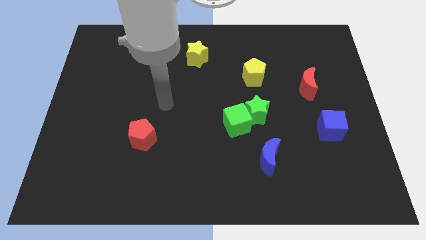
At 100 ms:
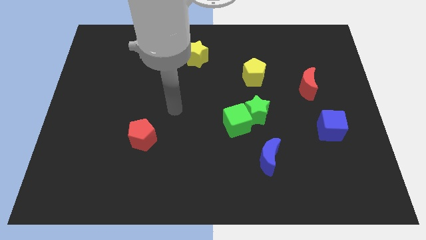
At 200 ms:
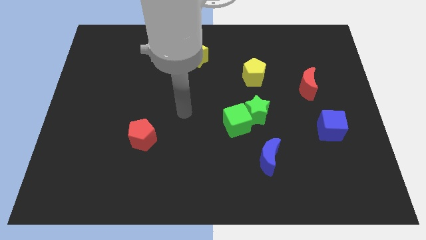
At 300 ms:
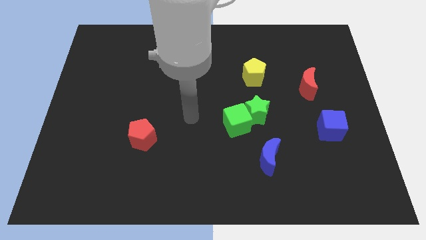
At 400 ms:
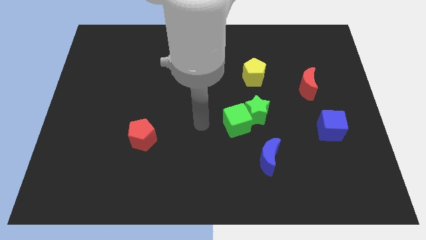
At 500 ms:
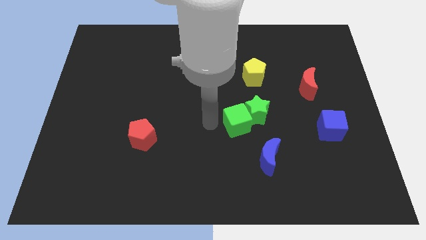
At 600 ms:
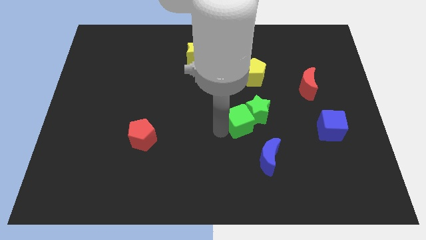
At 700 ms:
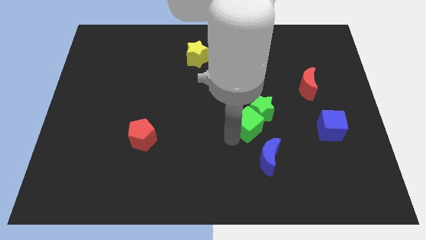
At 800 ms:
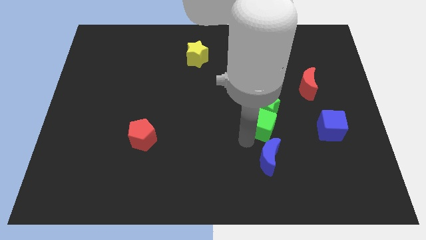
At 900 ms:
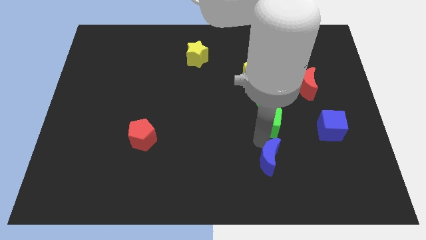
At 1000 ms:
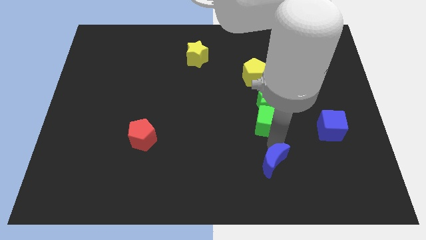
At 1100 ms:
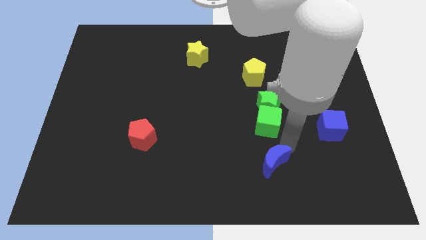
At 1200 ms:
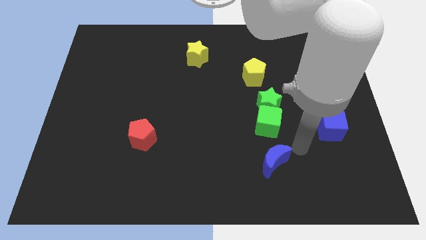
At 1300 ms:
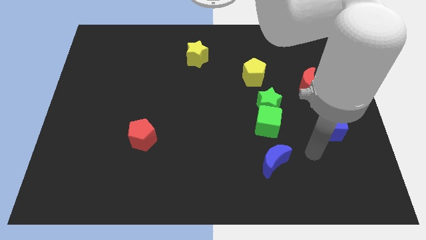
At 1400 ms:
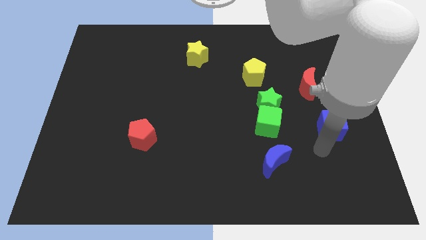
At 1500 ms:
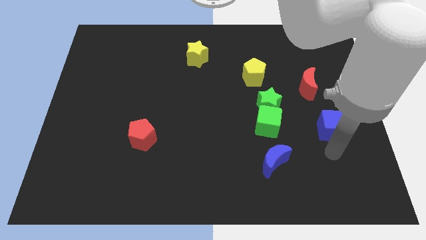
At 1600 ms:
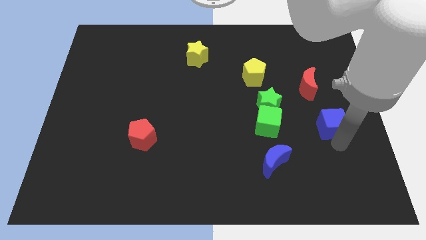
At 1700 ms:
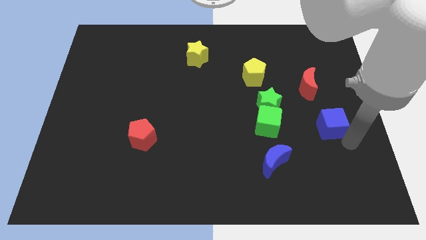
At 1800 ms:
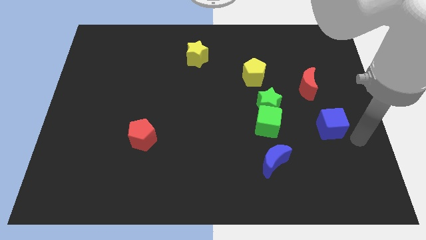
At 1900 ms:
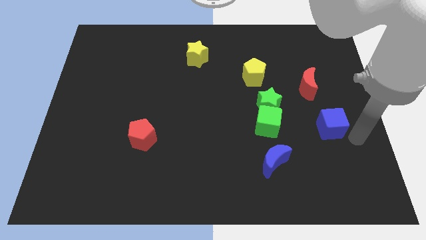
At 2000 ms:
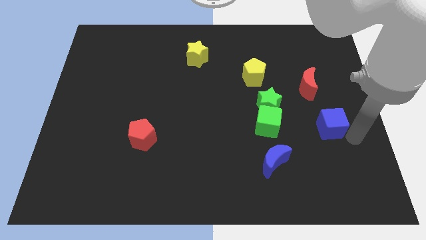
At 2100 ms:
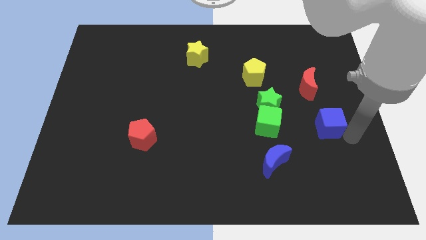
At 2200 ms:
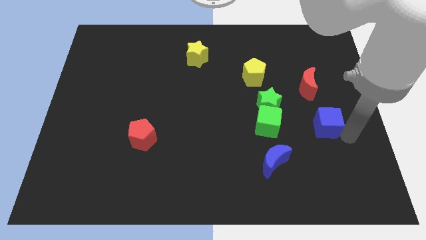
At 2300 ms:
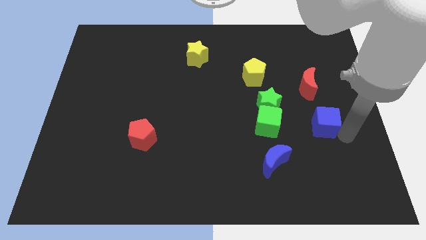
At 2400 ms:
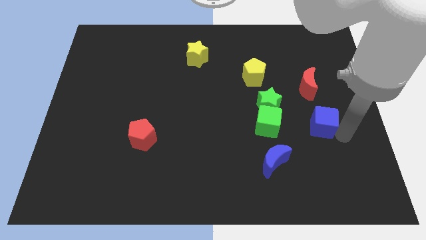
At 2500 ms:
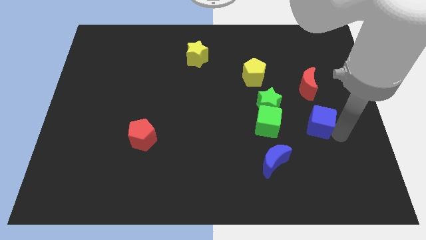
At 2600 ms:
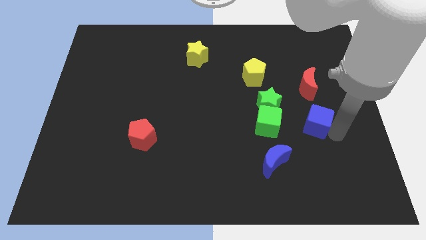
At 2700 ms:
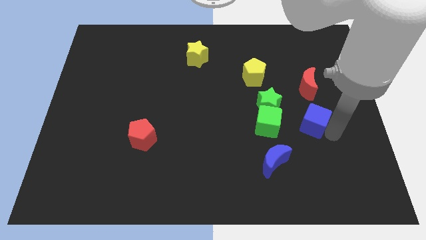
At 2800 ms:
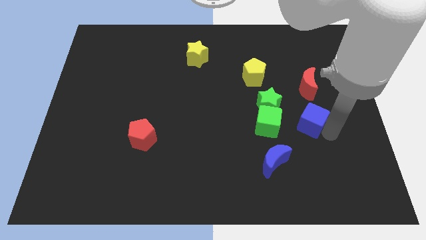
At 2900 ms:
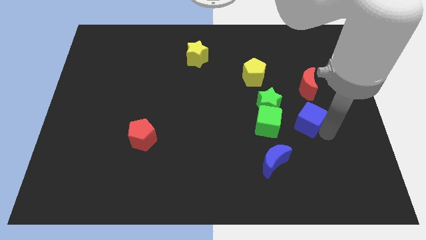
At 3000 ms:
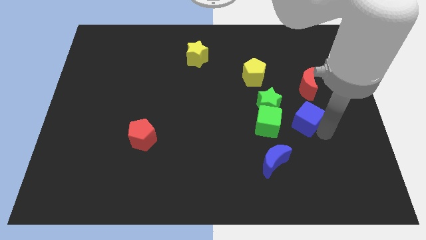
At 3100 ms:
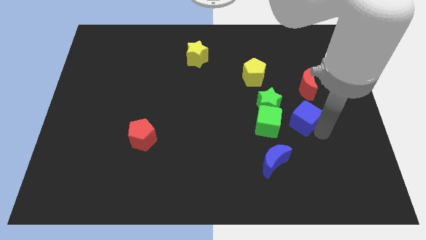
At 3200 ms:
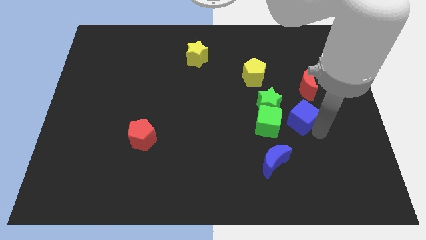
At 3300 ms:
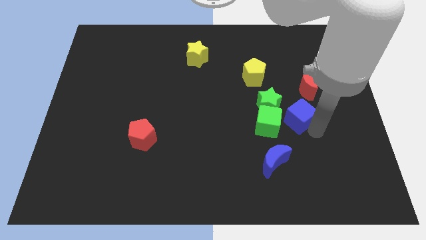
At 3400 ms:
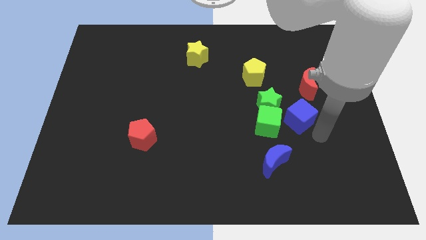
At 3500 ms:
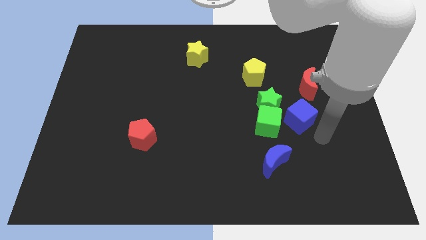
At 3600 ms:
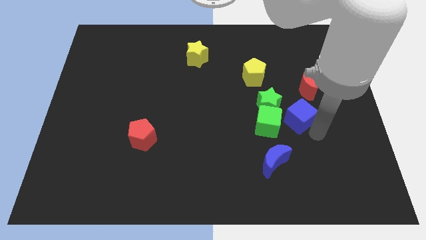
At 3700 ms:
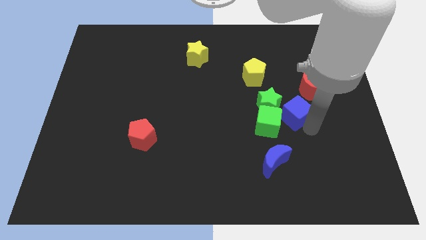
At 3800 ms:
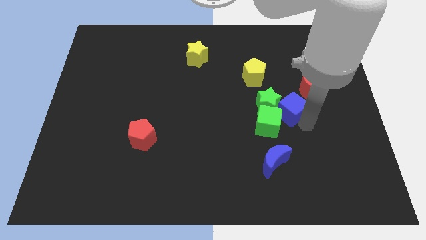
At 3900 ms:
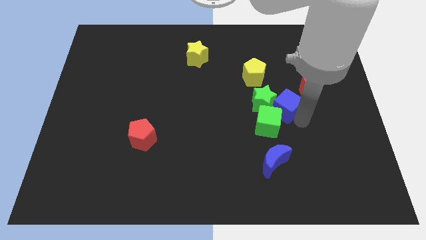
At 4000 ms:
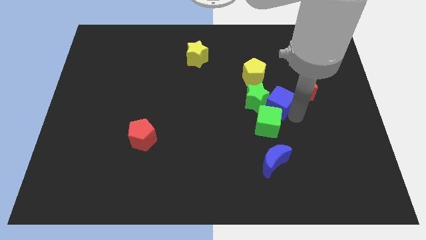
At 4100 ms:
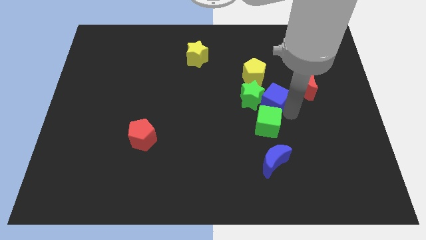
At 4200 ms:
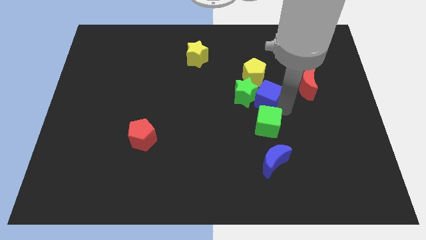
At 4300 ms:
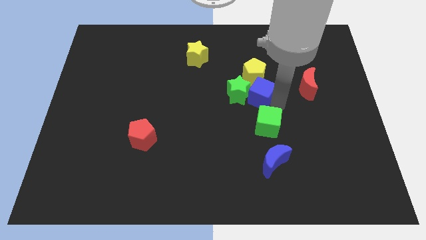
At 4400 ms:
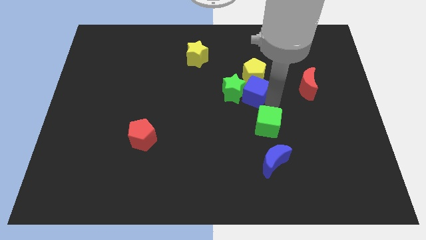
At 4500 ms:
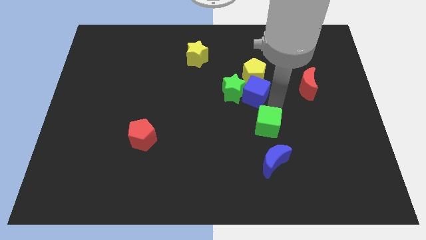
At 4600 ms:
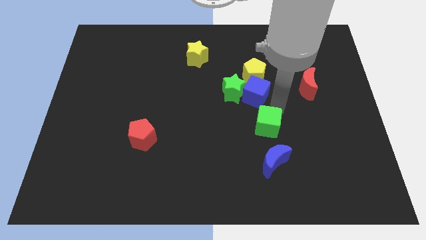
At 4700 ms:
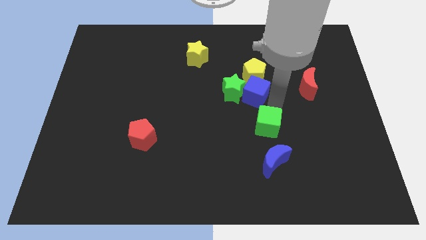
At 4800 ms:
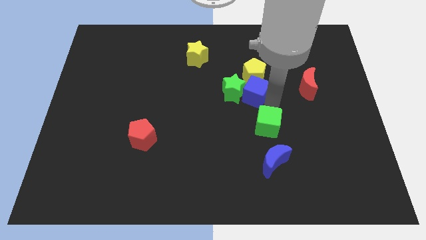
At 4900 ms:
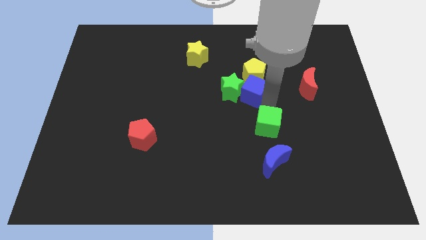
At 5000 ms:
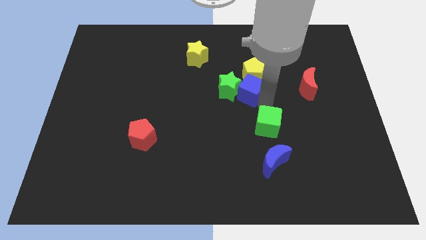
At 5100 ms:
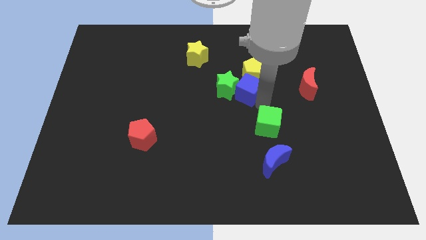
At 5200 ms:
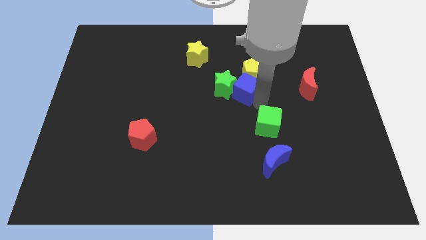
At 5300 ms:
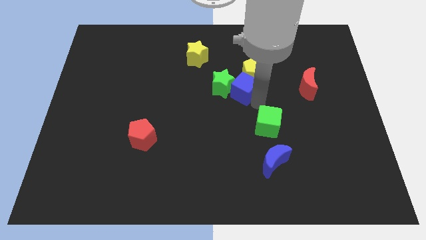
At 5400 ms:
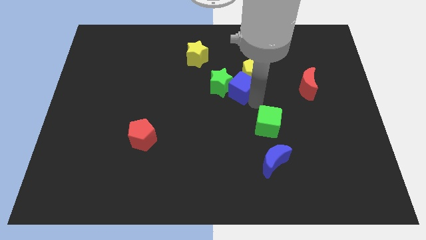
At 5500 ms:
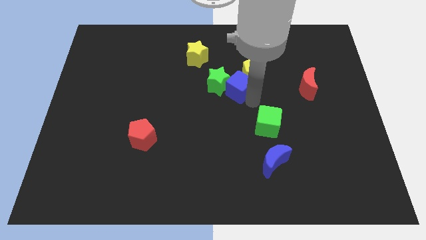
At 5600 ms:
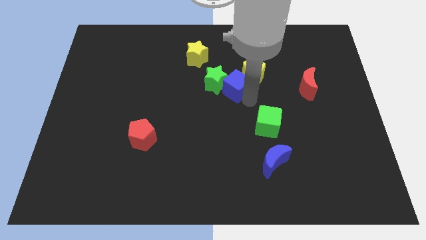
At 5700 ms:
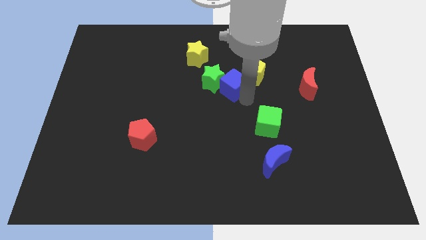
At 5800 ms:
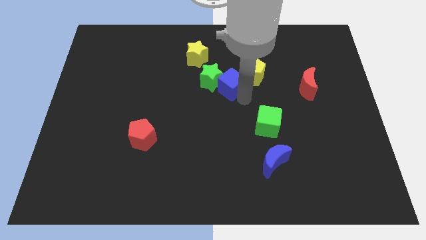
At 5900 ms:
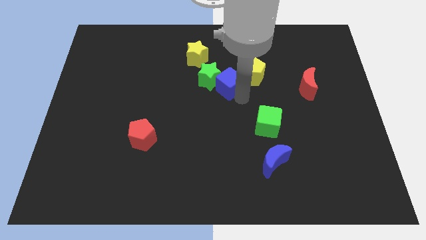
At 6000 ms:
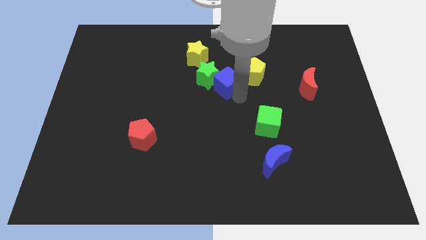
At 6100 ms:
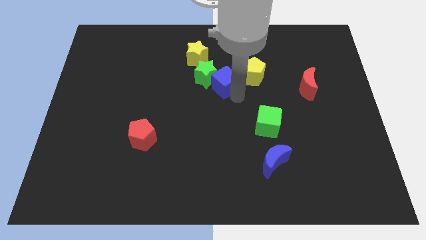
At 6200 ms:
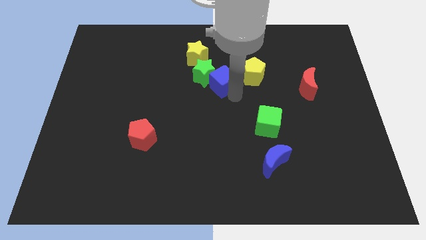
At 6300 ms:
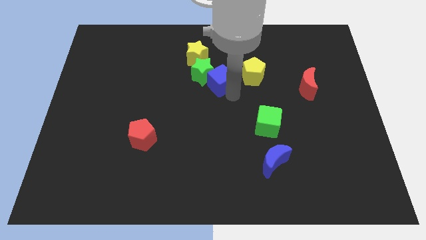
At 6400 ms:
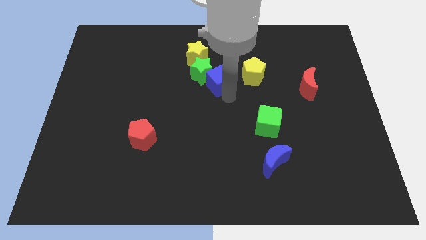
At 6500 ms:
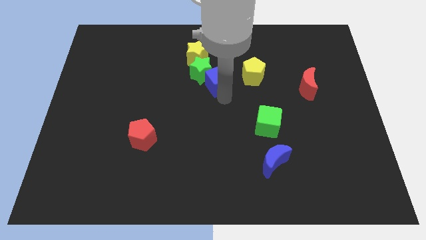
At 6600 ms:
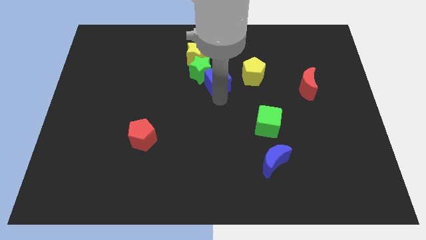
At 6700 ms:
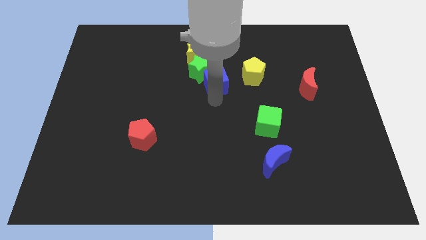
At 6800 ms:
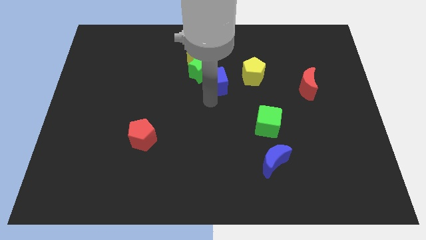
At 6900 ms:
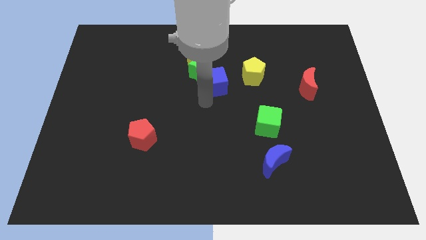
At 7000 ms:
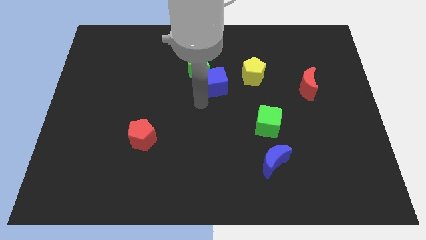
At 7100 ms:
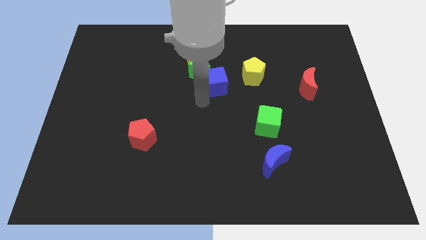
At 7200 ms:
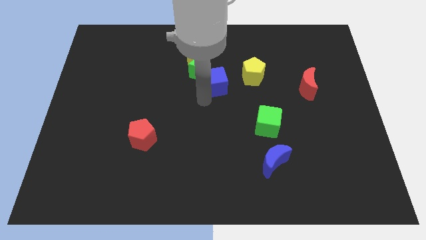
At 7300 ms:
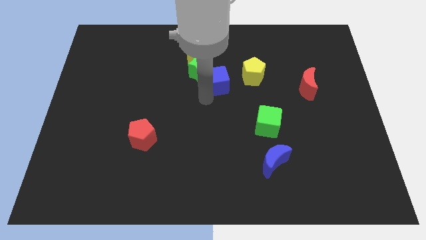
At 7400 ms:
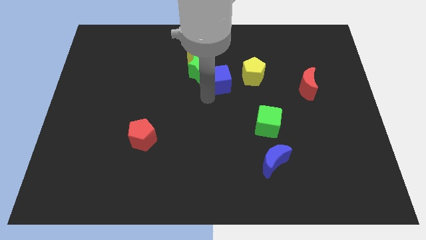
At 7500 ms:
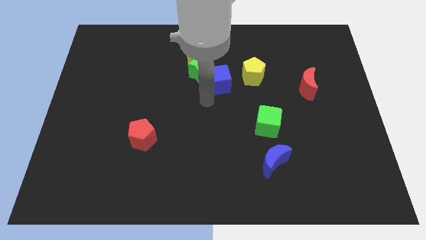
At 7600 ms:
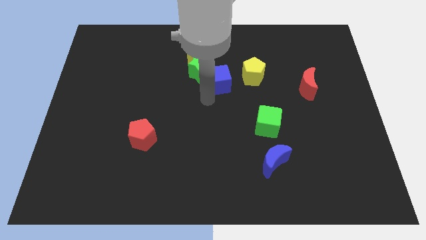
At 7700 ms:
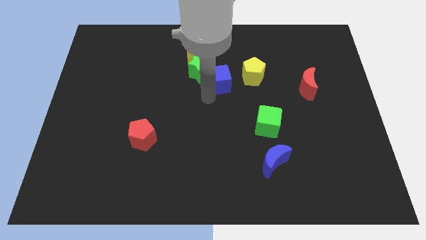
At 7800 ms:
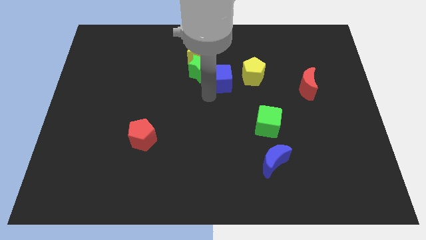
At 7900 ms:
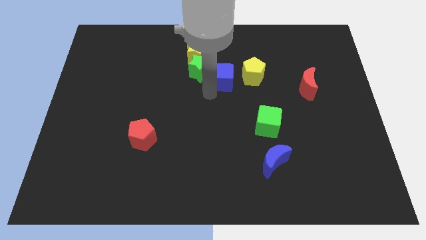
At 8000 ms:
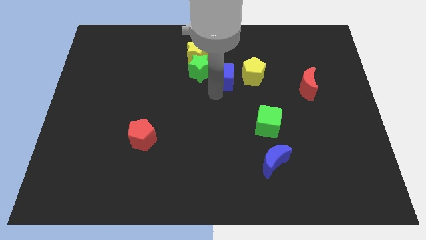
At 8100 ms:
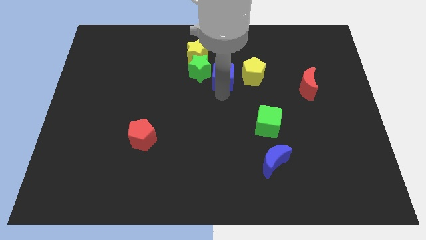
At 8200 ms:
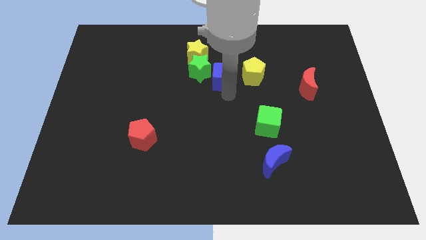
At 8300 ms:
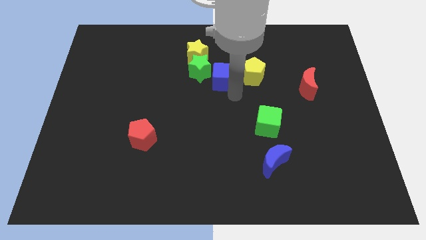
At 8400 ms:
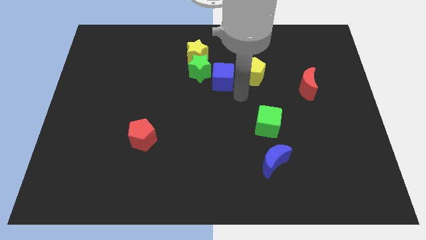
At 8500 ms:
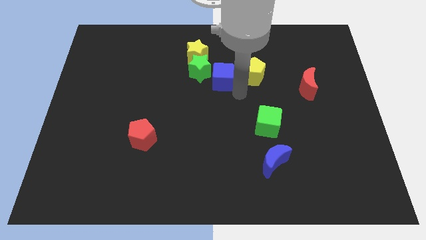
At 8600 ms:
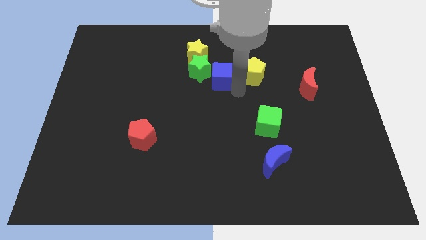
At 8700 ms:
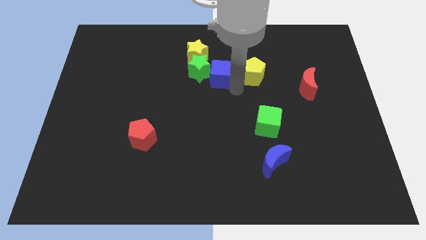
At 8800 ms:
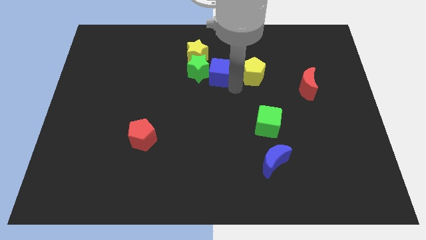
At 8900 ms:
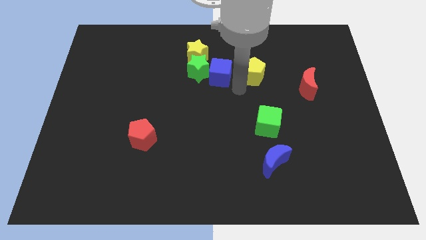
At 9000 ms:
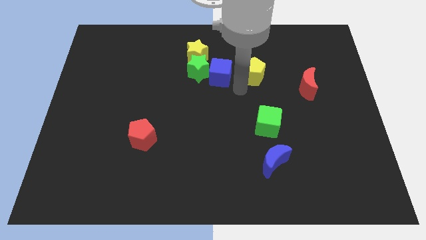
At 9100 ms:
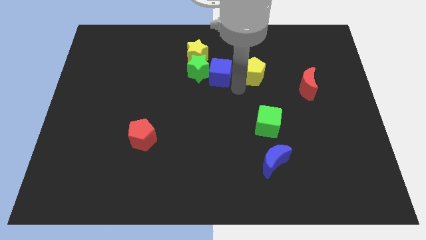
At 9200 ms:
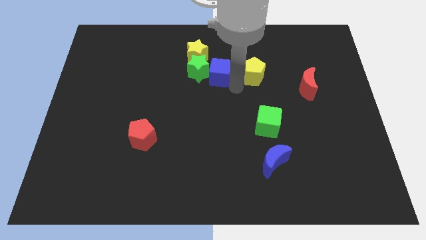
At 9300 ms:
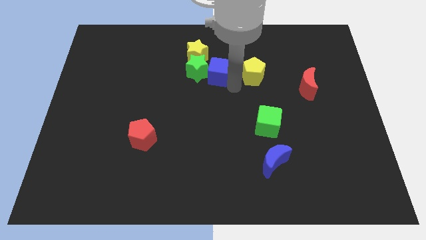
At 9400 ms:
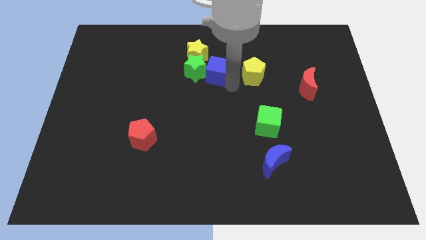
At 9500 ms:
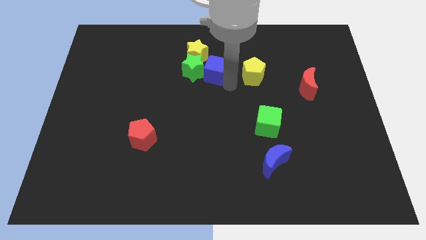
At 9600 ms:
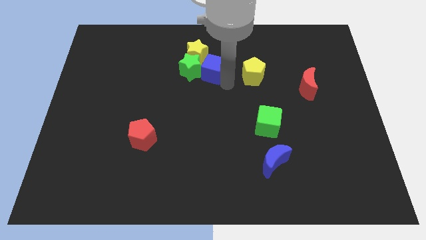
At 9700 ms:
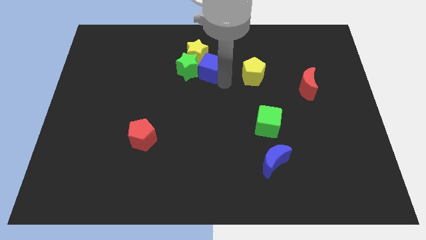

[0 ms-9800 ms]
move the blue cube to the yellow star
